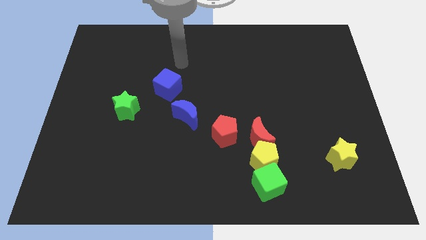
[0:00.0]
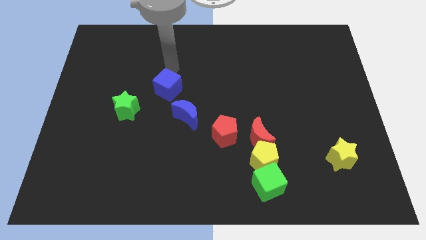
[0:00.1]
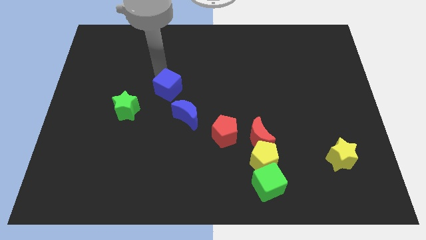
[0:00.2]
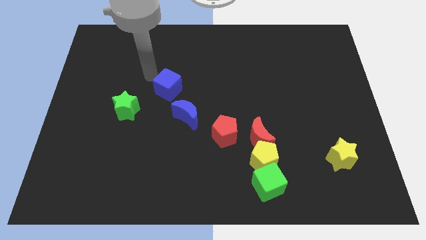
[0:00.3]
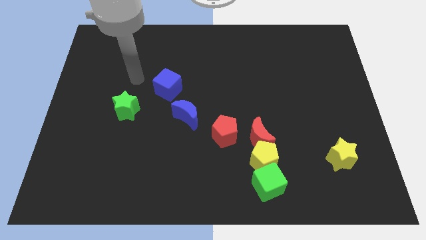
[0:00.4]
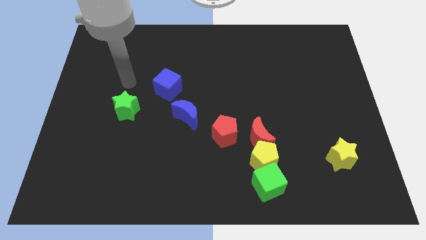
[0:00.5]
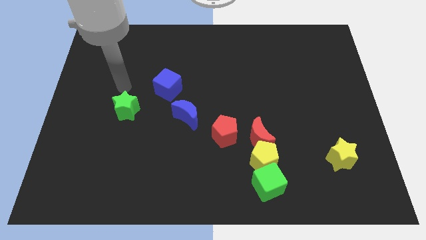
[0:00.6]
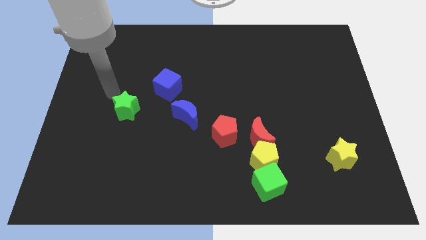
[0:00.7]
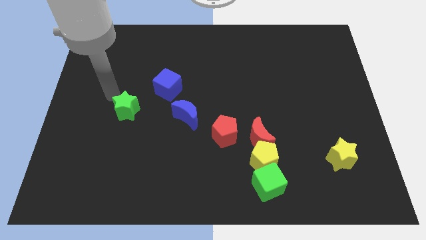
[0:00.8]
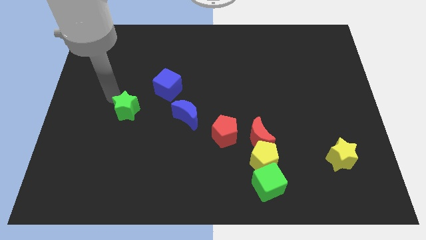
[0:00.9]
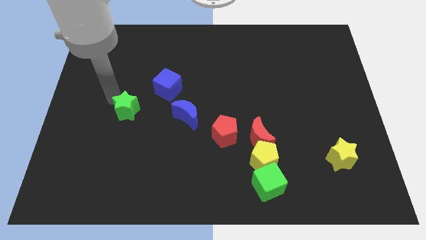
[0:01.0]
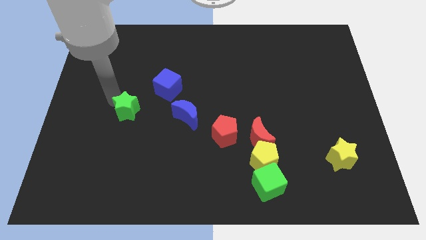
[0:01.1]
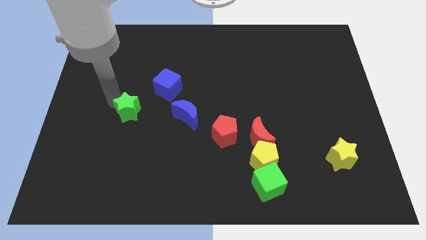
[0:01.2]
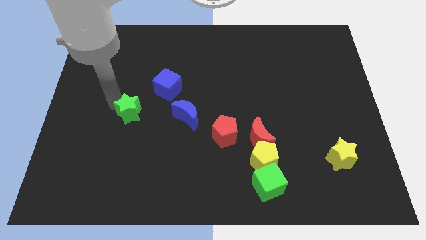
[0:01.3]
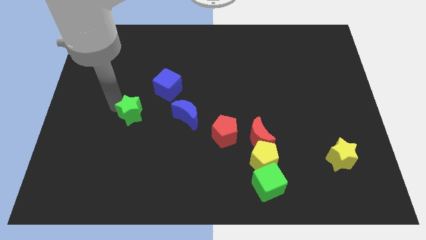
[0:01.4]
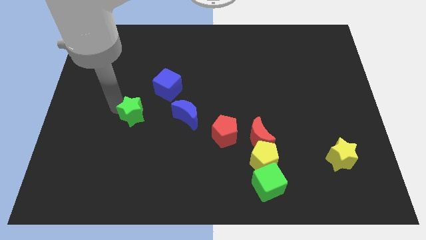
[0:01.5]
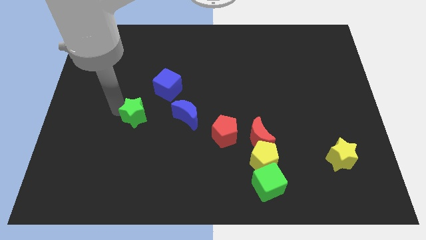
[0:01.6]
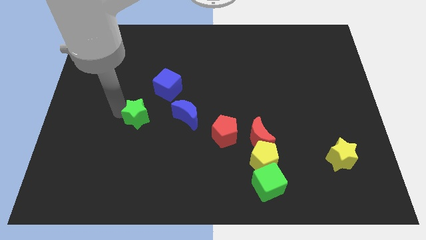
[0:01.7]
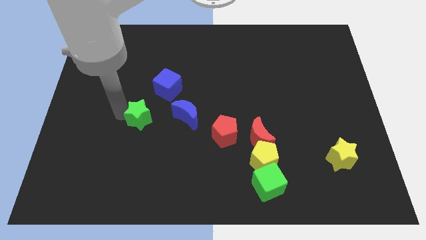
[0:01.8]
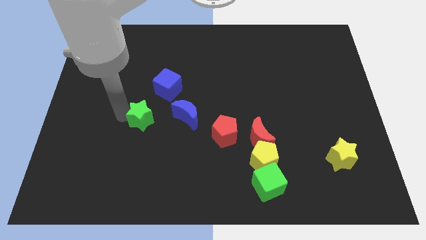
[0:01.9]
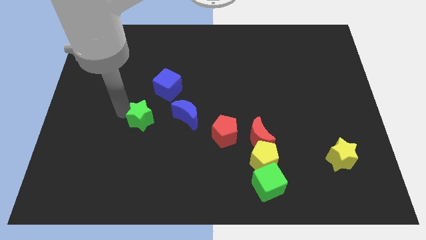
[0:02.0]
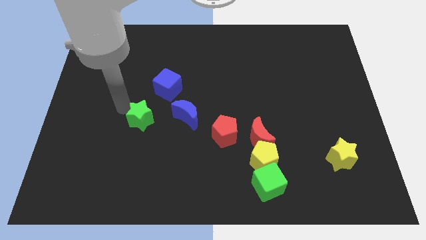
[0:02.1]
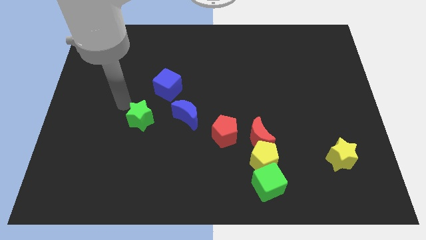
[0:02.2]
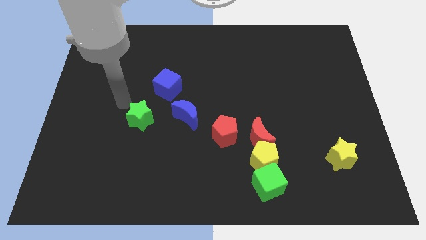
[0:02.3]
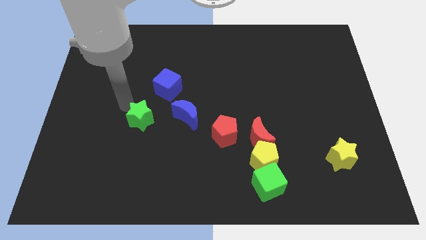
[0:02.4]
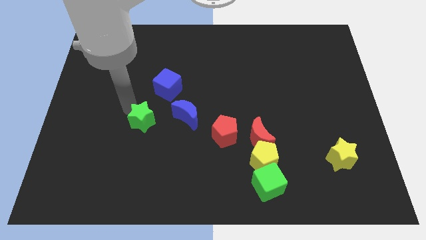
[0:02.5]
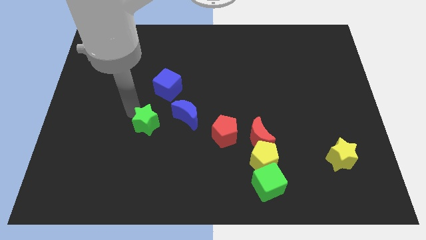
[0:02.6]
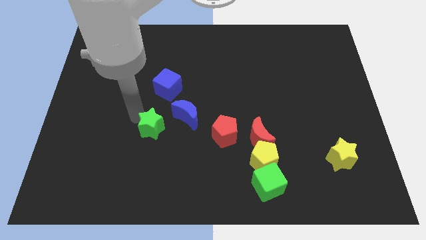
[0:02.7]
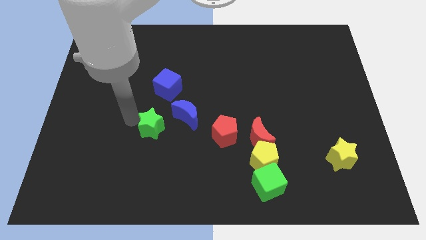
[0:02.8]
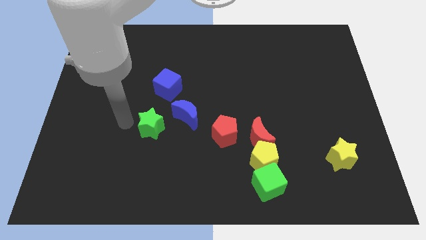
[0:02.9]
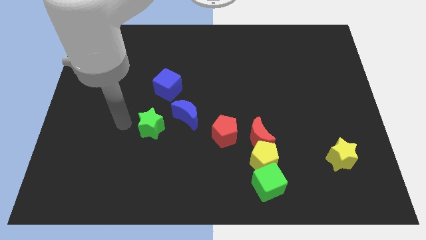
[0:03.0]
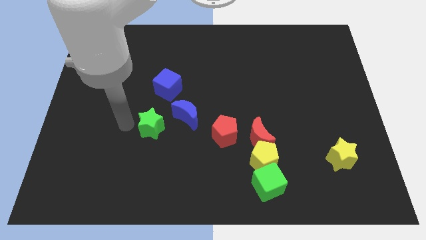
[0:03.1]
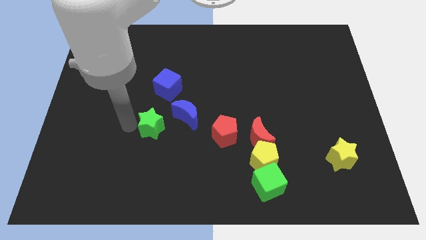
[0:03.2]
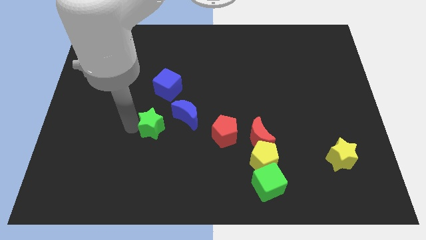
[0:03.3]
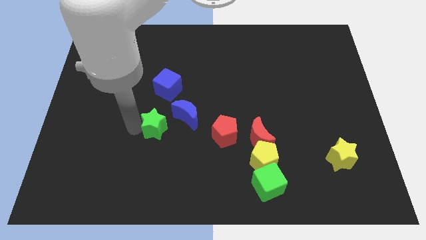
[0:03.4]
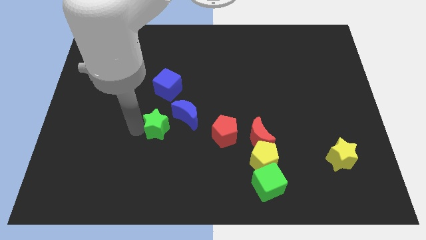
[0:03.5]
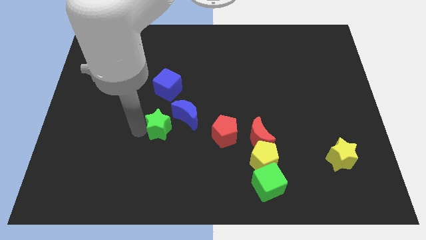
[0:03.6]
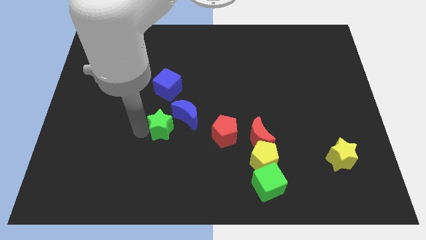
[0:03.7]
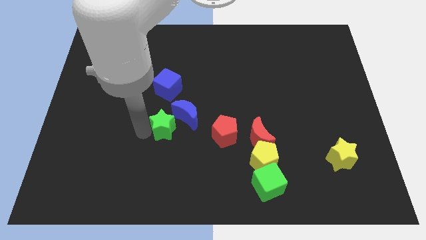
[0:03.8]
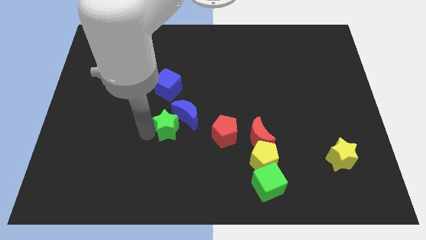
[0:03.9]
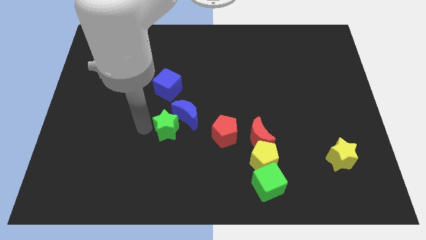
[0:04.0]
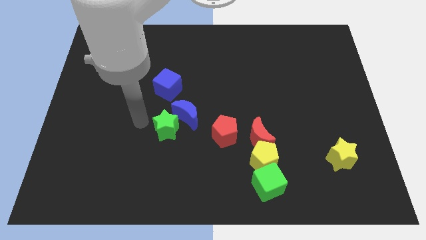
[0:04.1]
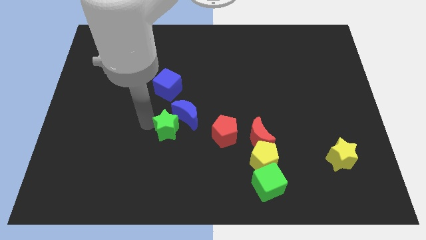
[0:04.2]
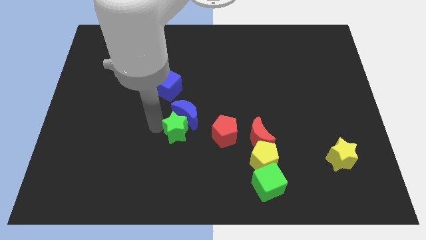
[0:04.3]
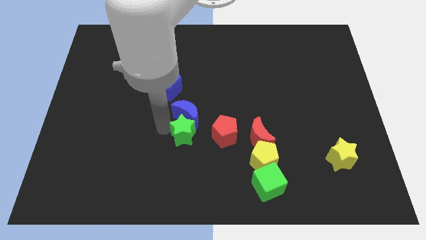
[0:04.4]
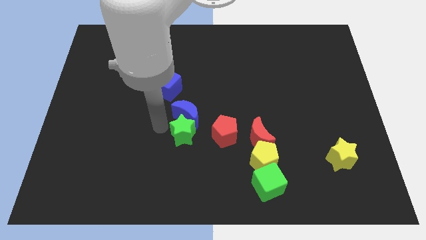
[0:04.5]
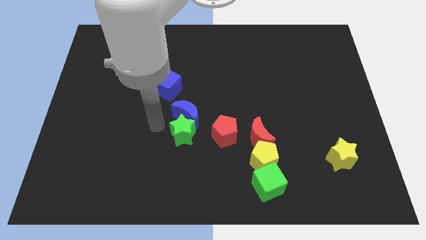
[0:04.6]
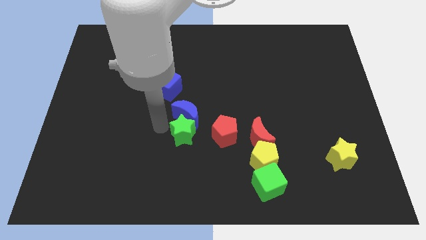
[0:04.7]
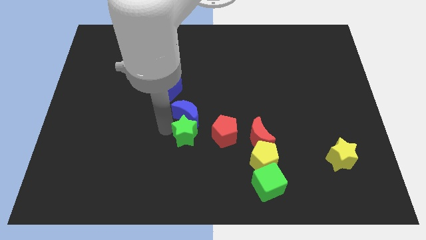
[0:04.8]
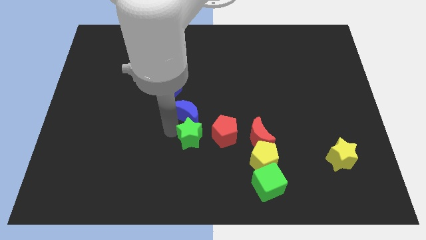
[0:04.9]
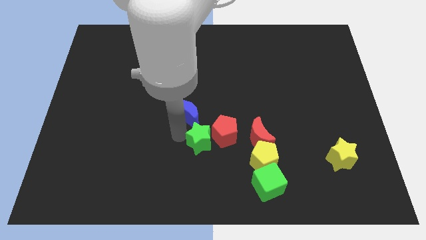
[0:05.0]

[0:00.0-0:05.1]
push the green star close to the red pentagon

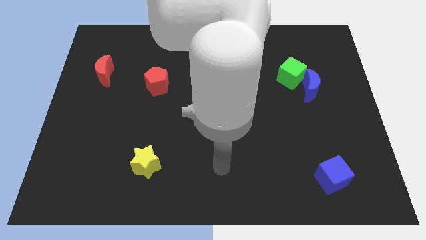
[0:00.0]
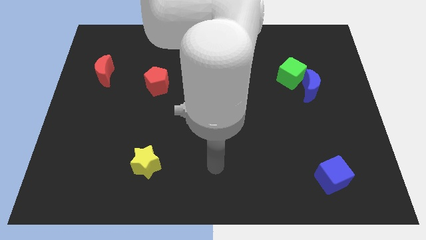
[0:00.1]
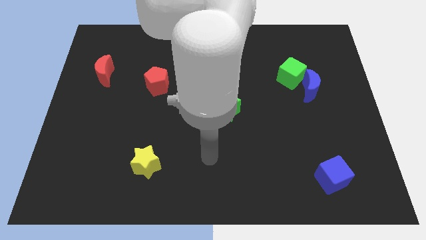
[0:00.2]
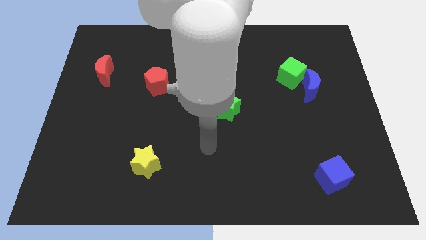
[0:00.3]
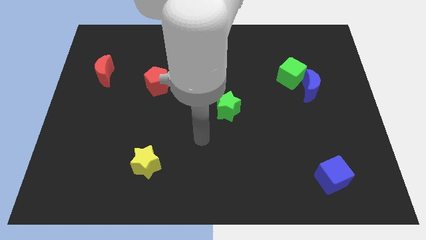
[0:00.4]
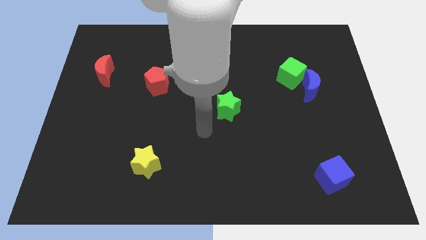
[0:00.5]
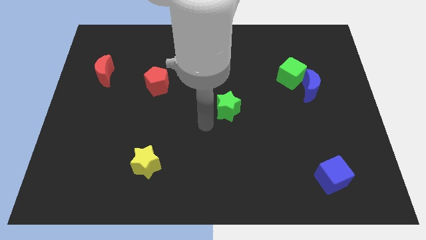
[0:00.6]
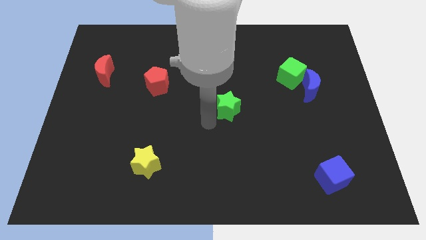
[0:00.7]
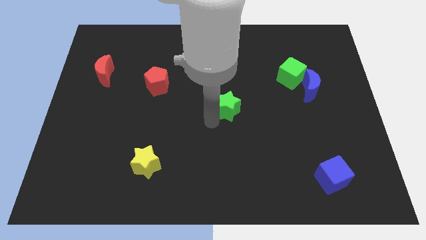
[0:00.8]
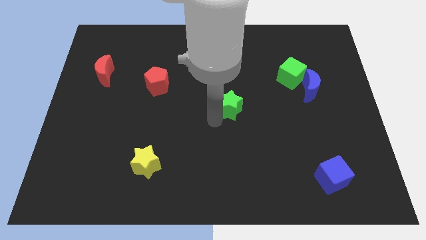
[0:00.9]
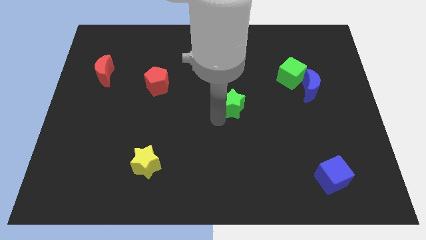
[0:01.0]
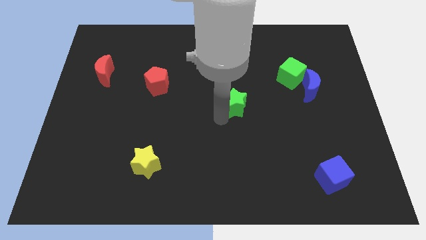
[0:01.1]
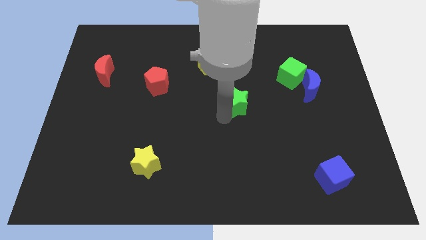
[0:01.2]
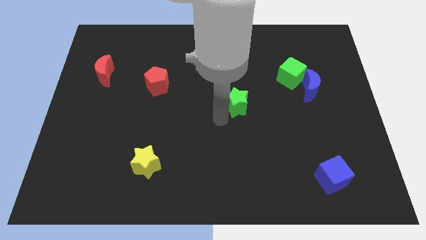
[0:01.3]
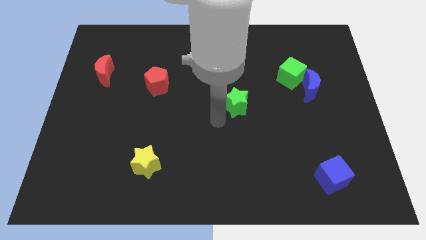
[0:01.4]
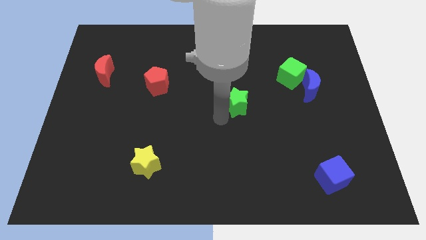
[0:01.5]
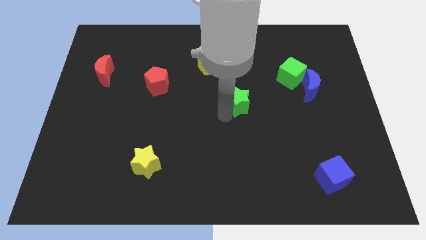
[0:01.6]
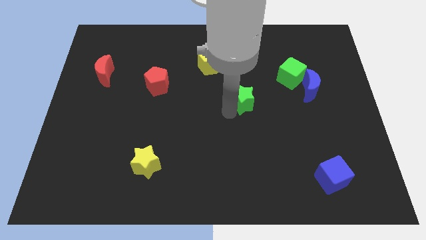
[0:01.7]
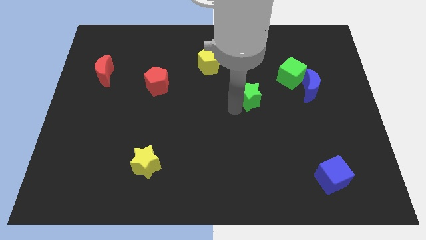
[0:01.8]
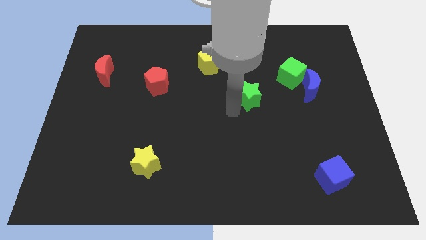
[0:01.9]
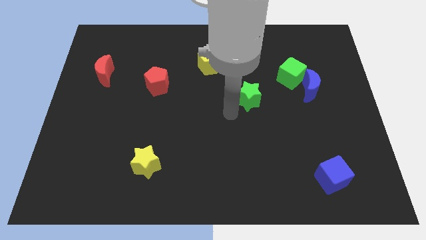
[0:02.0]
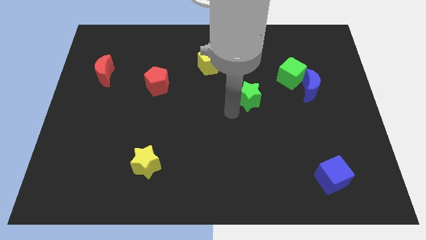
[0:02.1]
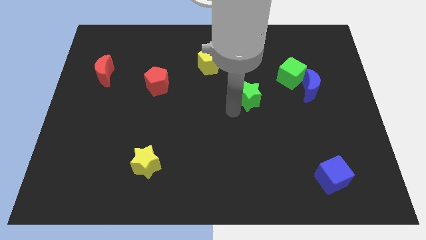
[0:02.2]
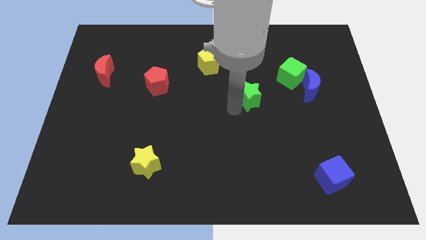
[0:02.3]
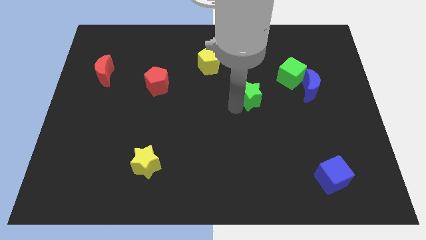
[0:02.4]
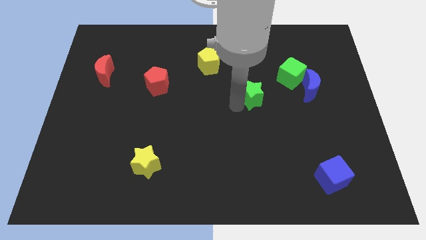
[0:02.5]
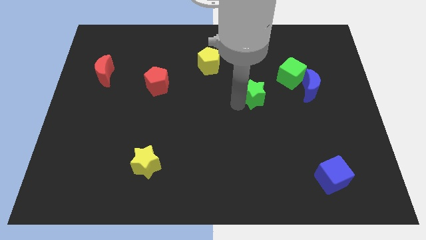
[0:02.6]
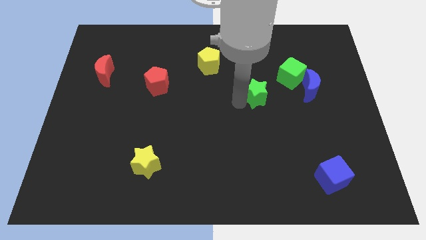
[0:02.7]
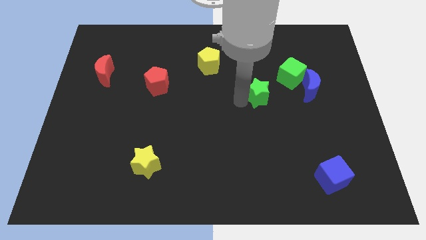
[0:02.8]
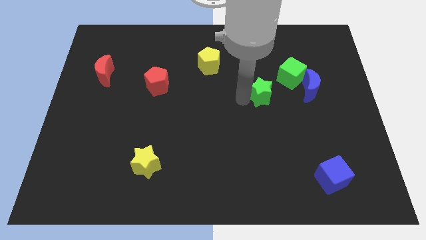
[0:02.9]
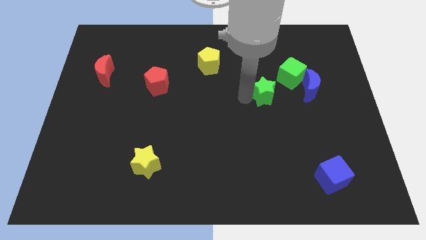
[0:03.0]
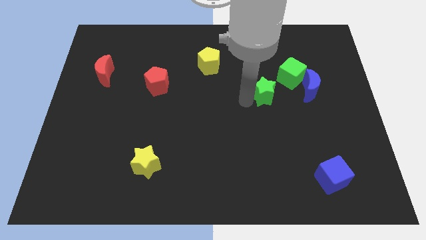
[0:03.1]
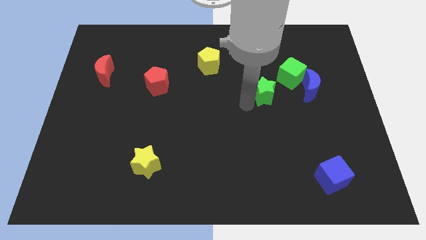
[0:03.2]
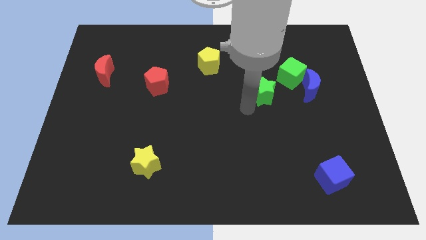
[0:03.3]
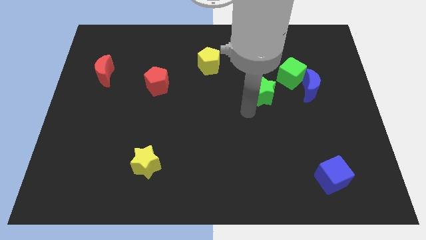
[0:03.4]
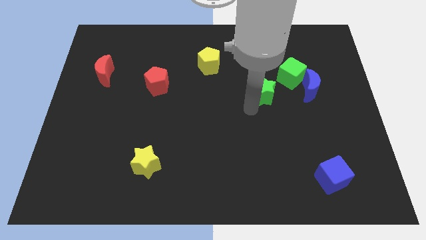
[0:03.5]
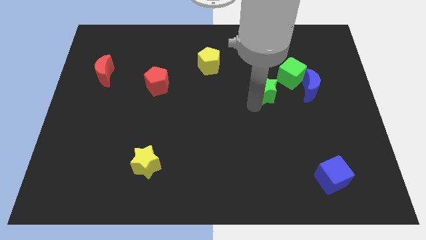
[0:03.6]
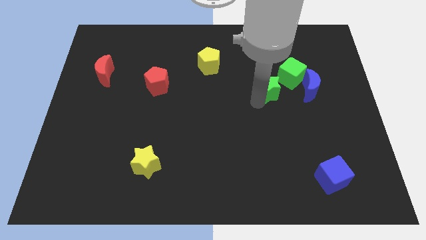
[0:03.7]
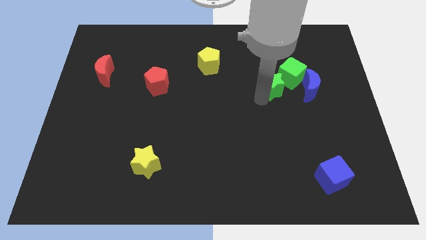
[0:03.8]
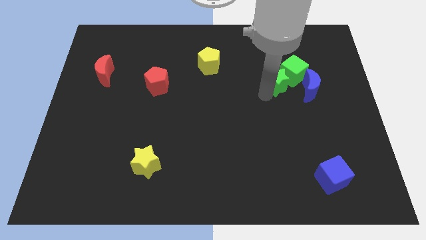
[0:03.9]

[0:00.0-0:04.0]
slide the green star close to the green cube
